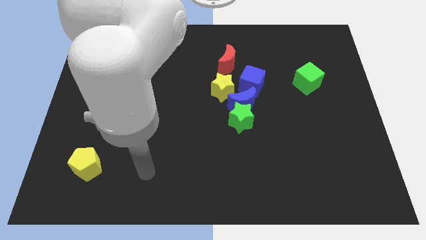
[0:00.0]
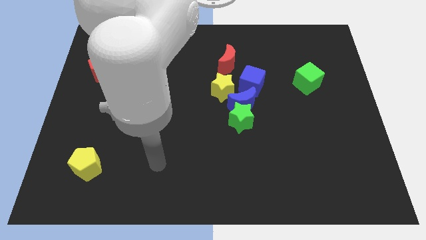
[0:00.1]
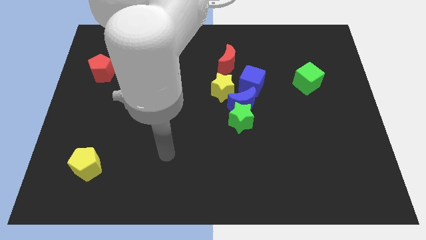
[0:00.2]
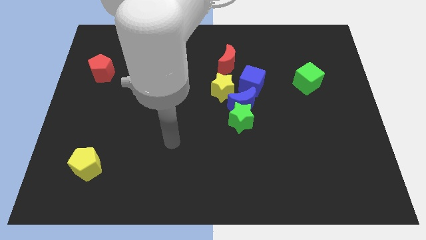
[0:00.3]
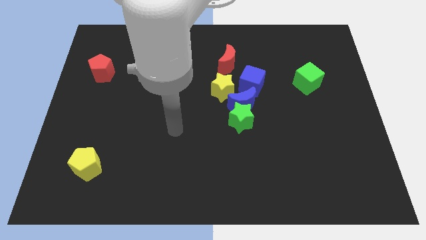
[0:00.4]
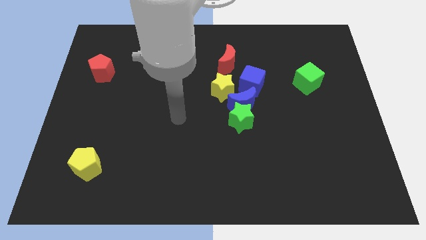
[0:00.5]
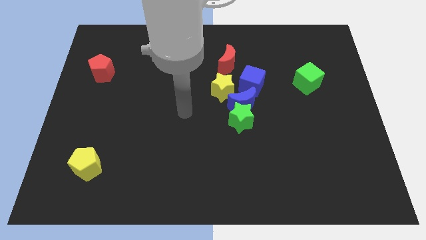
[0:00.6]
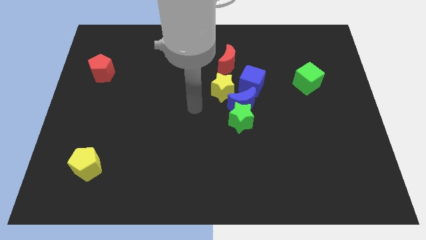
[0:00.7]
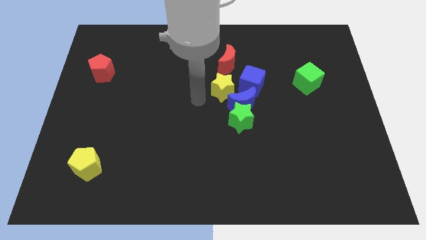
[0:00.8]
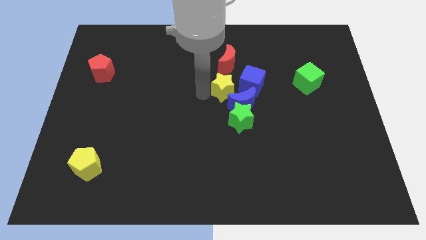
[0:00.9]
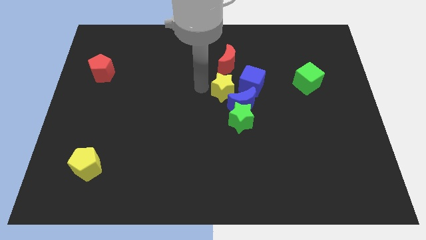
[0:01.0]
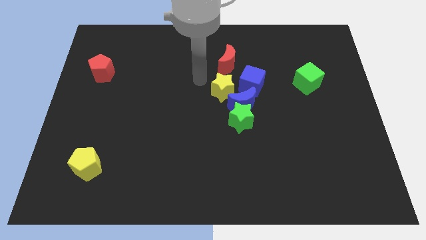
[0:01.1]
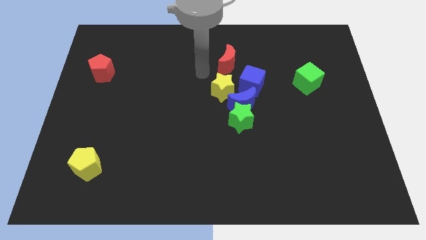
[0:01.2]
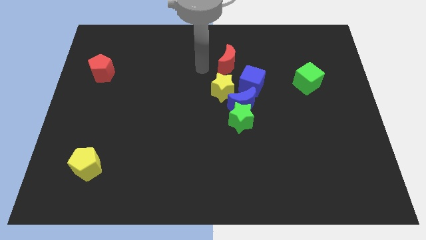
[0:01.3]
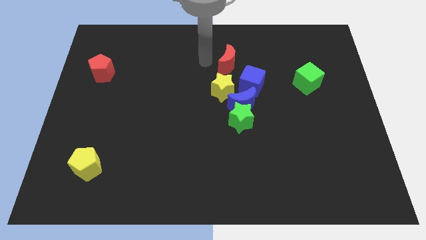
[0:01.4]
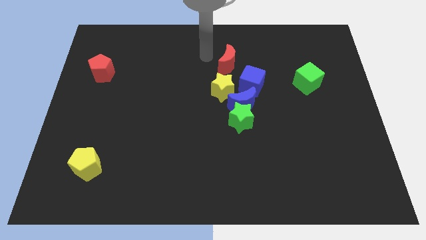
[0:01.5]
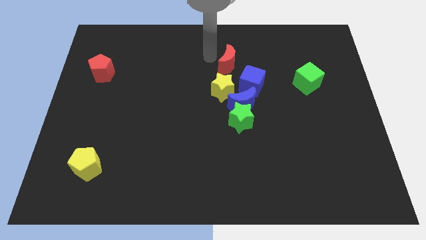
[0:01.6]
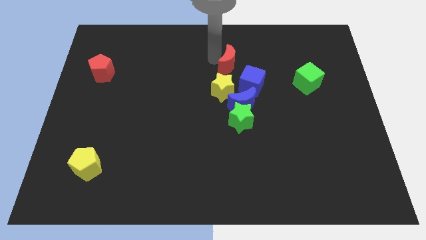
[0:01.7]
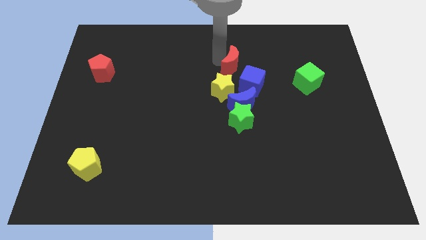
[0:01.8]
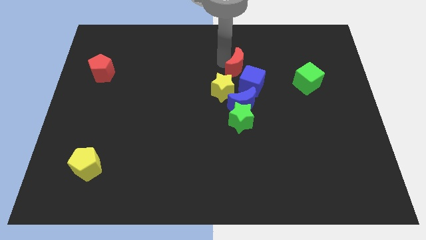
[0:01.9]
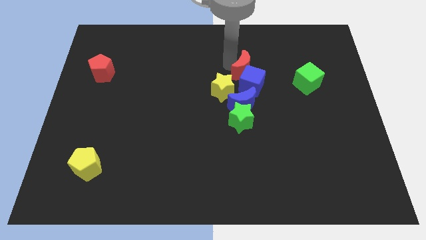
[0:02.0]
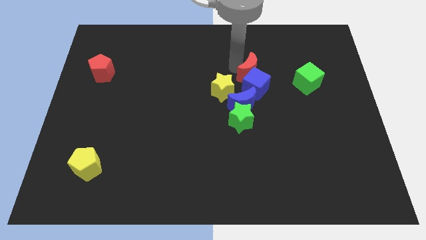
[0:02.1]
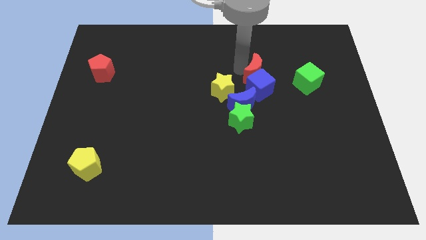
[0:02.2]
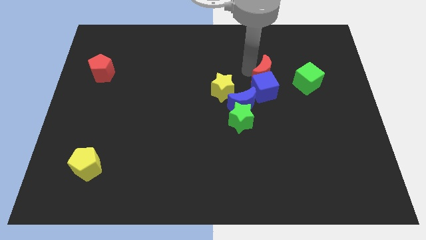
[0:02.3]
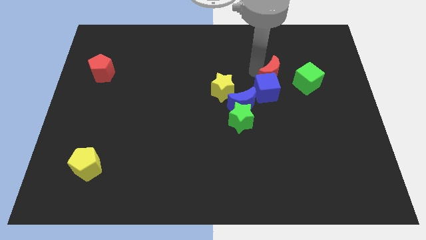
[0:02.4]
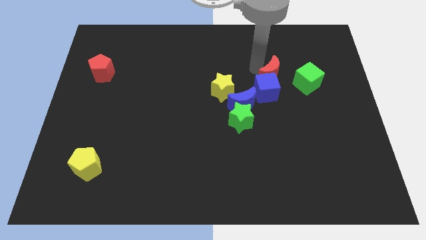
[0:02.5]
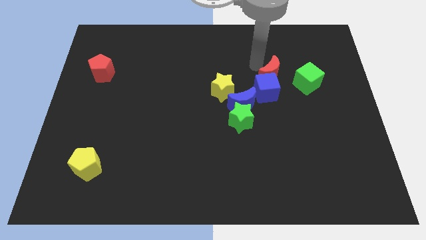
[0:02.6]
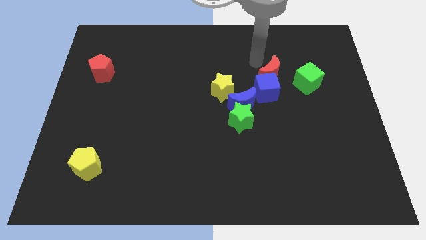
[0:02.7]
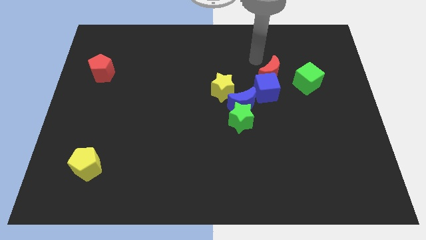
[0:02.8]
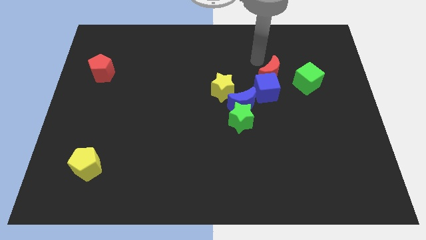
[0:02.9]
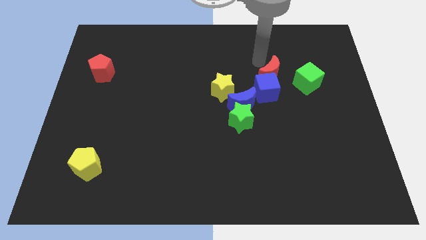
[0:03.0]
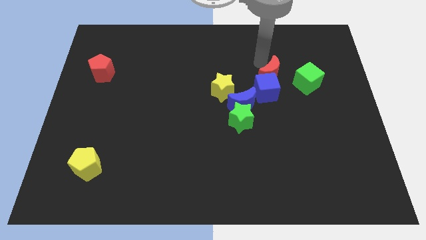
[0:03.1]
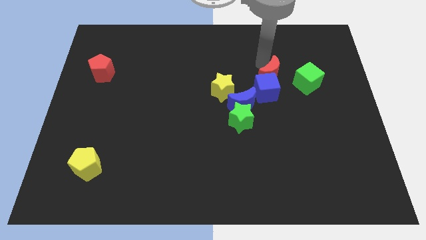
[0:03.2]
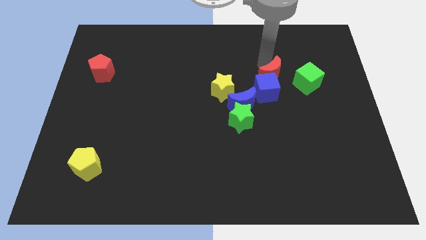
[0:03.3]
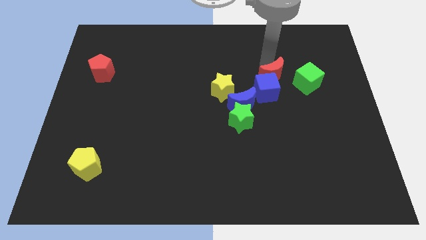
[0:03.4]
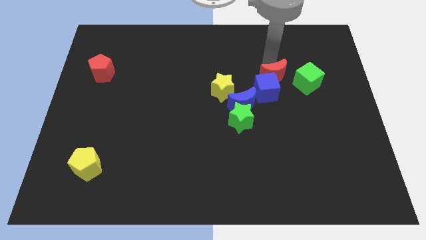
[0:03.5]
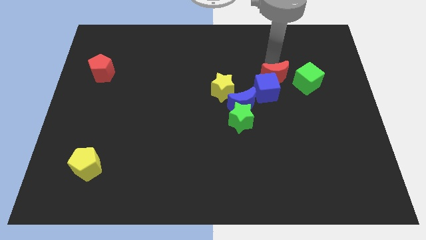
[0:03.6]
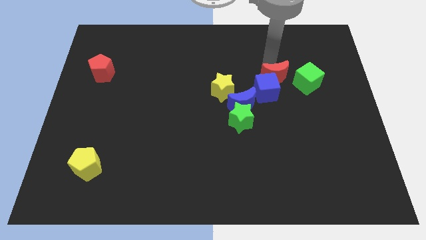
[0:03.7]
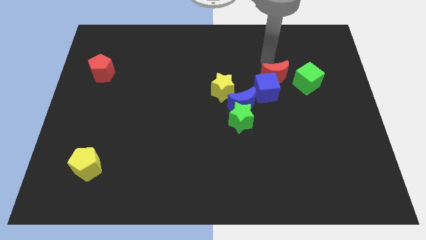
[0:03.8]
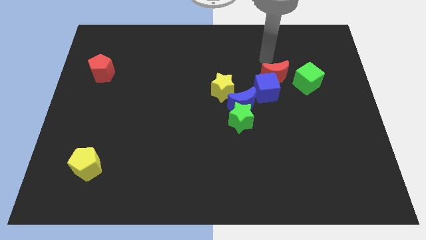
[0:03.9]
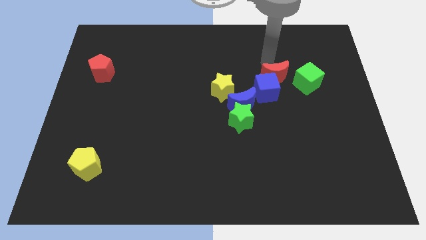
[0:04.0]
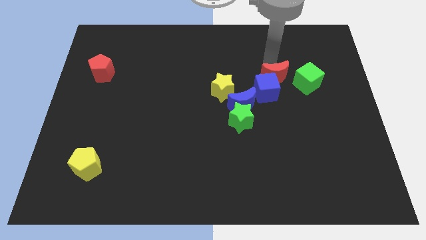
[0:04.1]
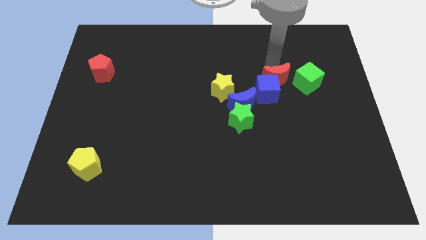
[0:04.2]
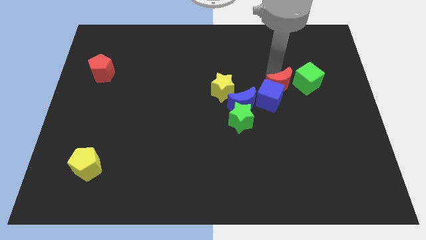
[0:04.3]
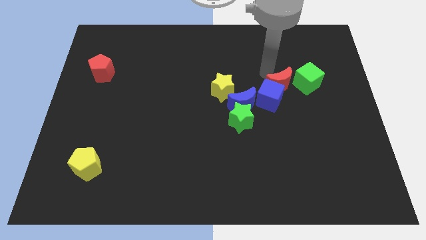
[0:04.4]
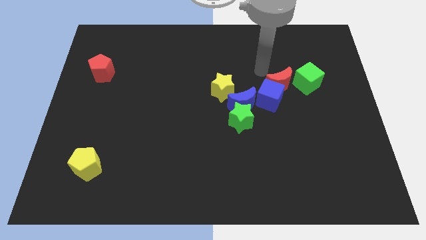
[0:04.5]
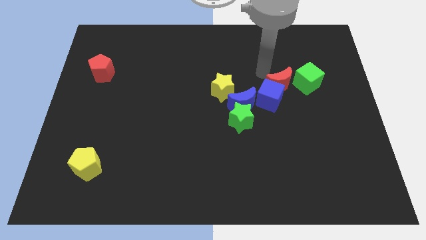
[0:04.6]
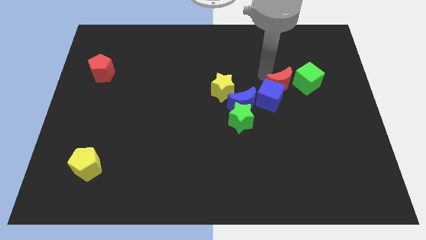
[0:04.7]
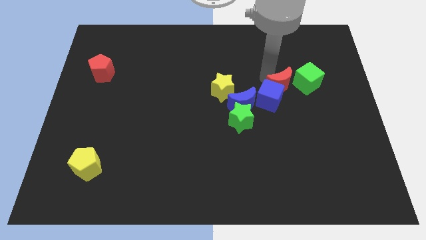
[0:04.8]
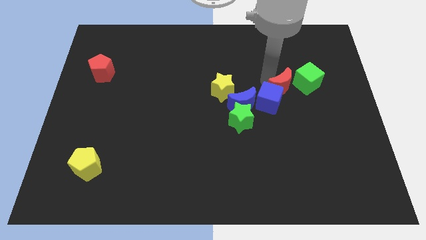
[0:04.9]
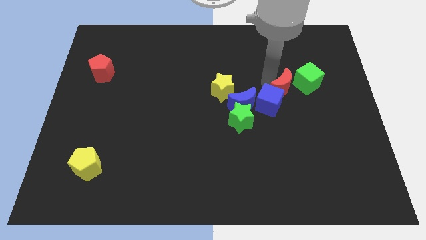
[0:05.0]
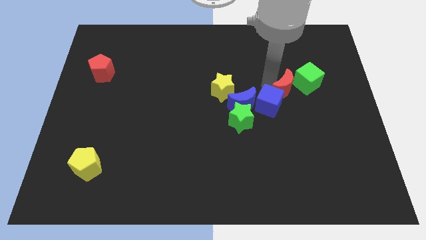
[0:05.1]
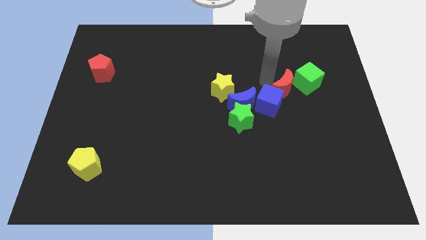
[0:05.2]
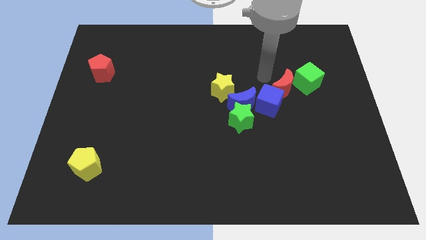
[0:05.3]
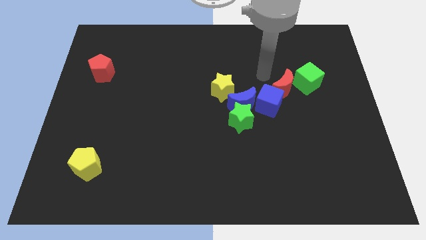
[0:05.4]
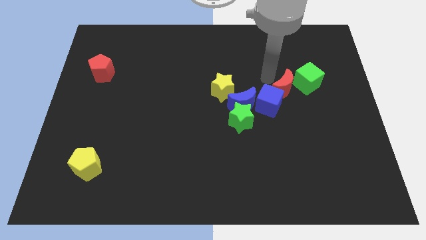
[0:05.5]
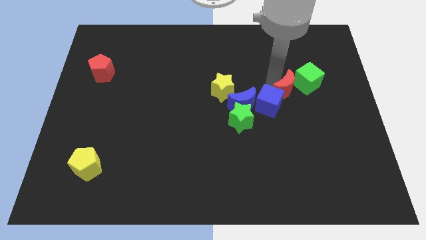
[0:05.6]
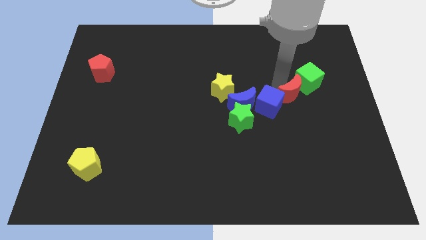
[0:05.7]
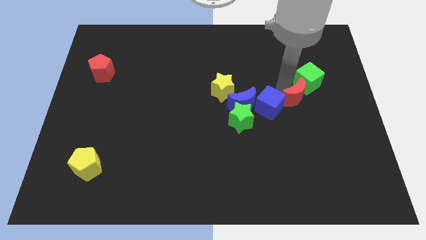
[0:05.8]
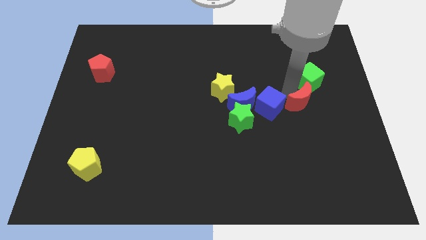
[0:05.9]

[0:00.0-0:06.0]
push the red moon down and right diagonally

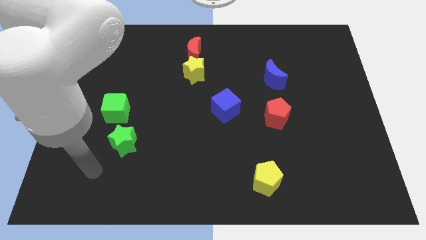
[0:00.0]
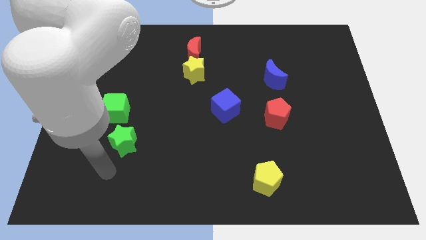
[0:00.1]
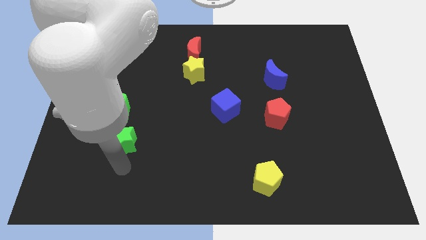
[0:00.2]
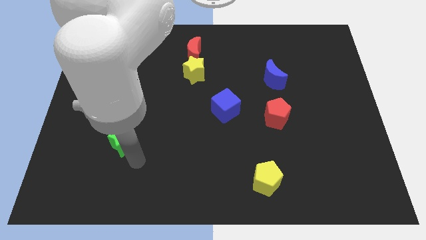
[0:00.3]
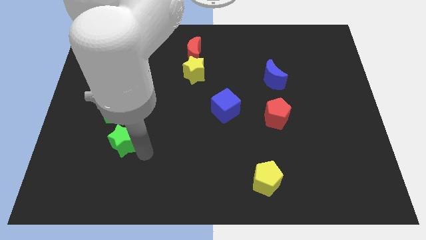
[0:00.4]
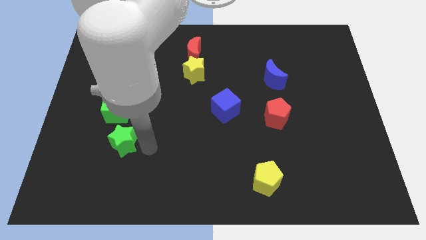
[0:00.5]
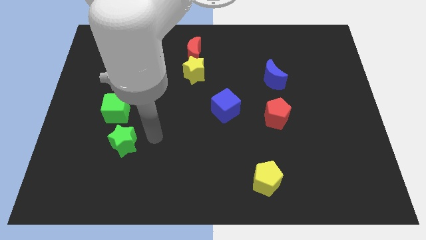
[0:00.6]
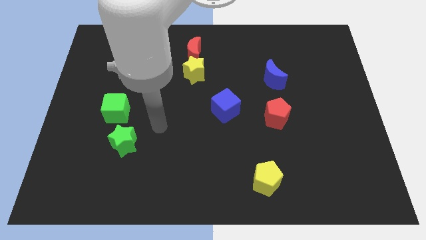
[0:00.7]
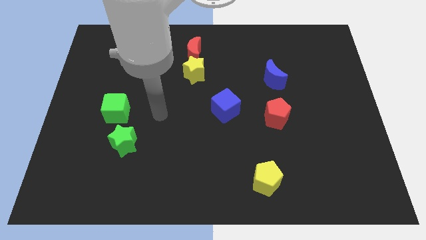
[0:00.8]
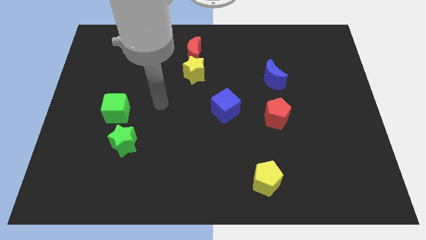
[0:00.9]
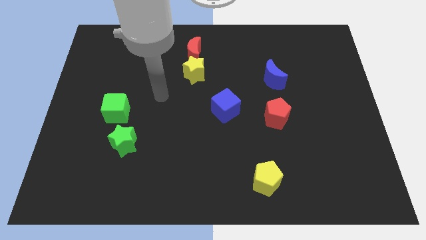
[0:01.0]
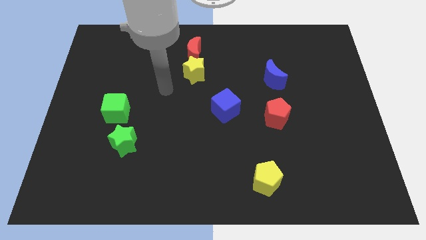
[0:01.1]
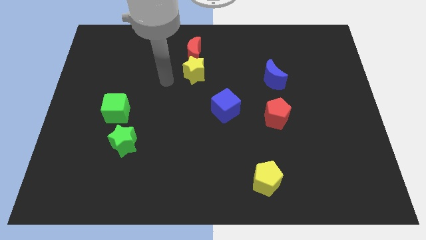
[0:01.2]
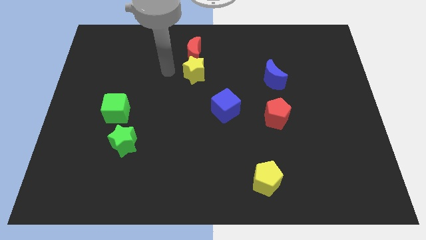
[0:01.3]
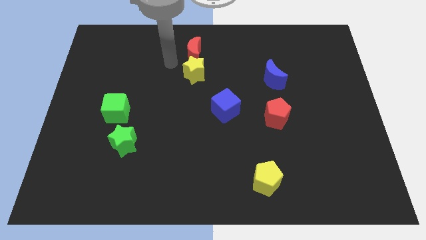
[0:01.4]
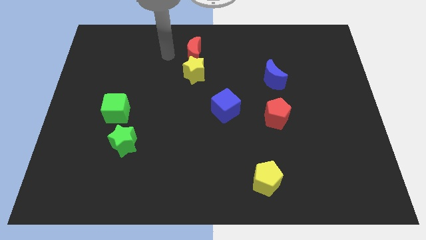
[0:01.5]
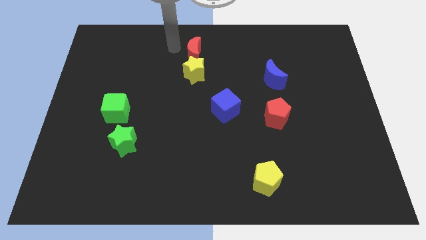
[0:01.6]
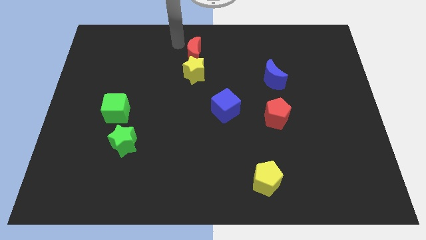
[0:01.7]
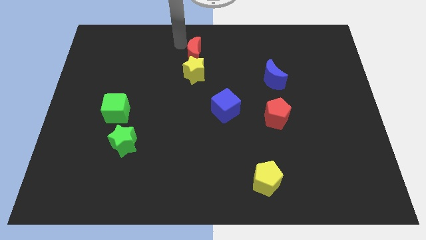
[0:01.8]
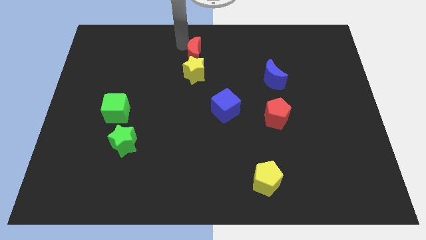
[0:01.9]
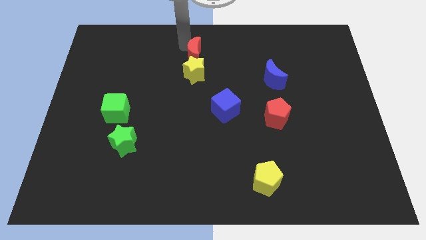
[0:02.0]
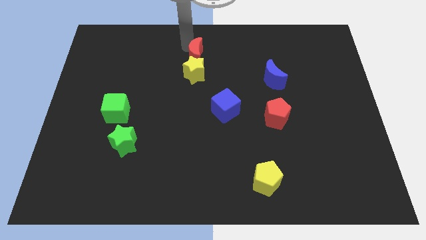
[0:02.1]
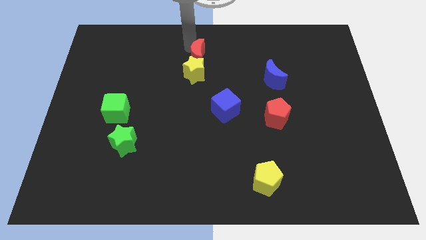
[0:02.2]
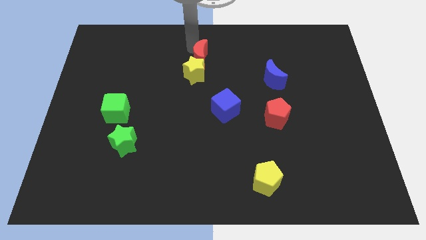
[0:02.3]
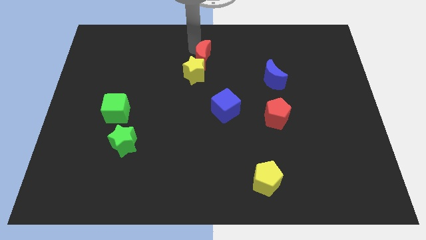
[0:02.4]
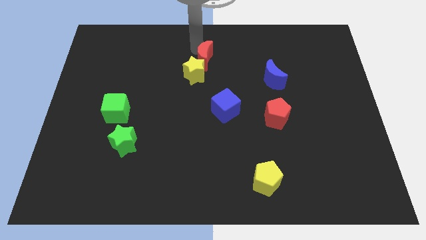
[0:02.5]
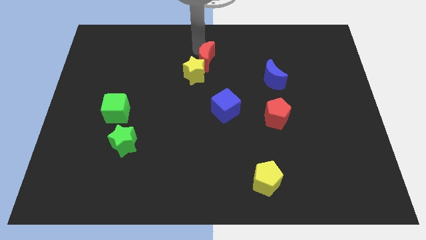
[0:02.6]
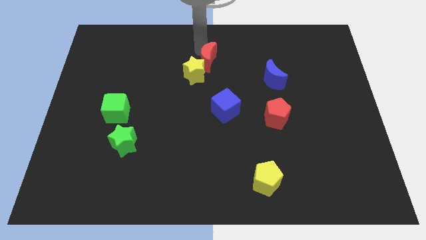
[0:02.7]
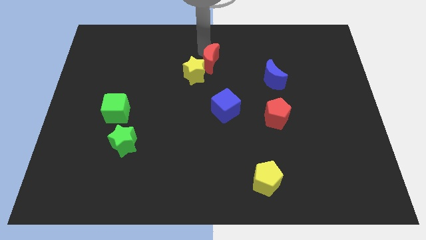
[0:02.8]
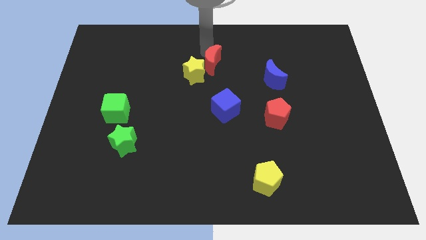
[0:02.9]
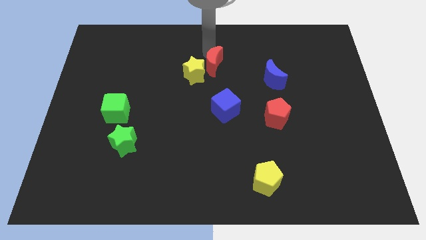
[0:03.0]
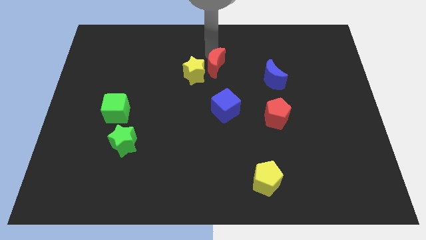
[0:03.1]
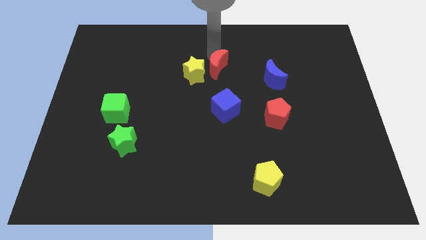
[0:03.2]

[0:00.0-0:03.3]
push the red moon down and to the right diagonally a bit
